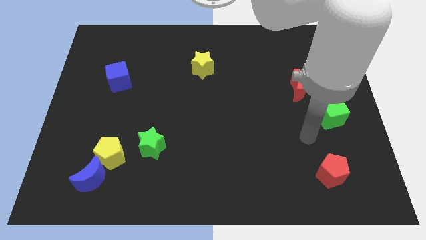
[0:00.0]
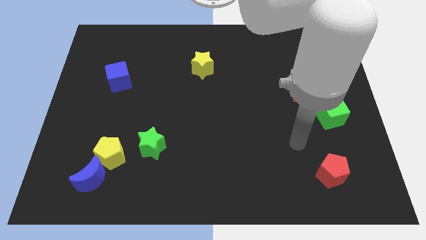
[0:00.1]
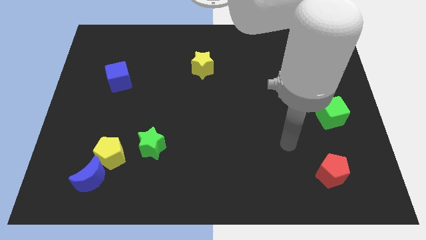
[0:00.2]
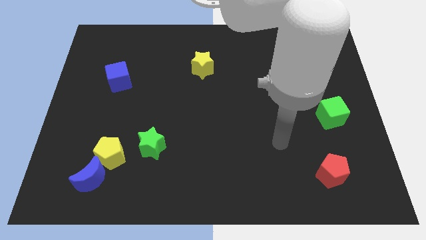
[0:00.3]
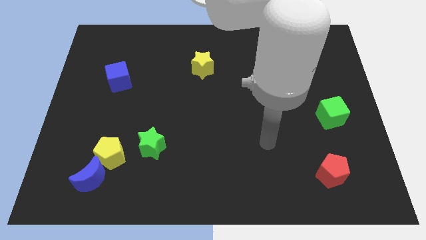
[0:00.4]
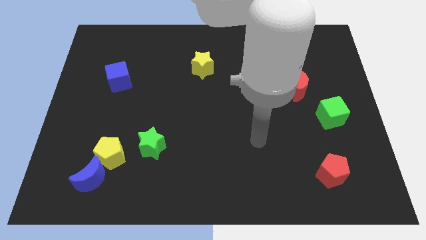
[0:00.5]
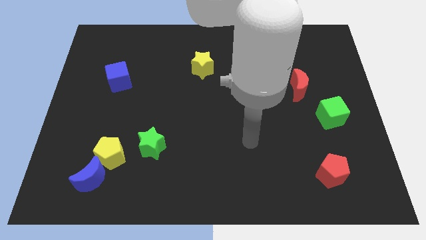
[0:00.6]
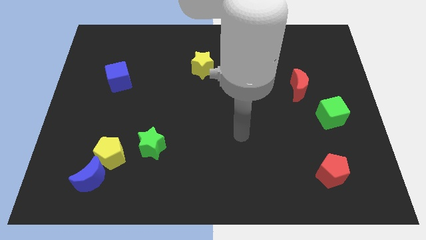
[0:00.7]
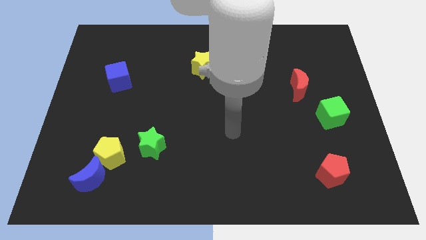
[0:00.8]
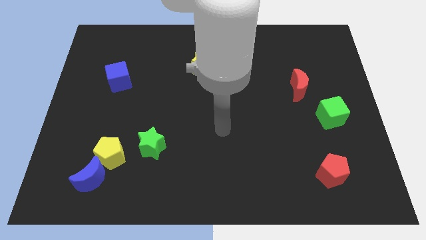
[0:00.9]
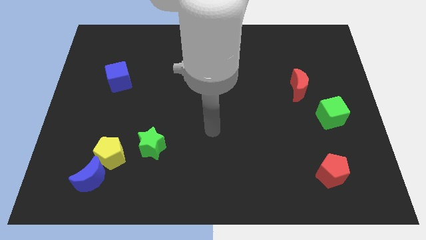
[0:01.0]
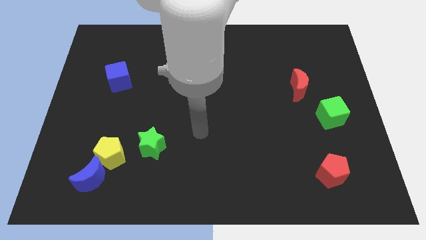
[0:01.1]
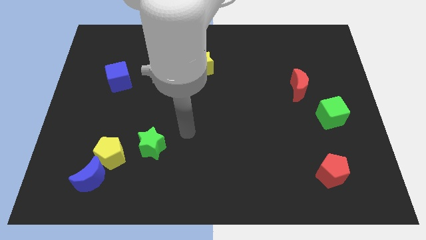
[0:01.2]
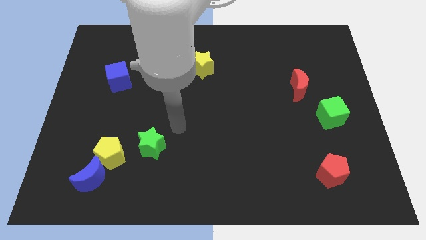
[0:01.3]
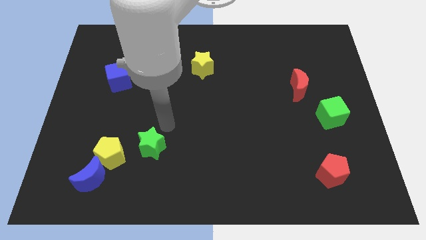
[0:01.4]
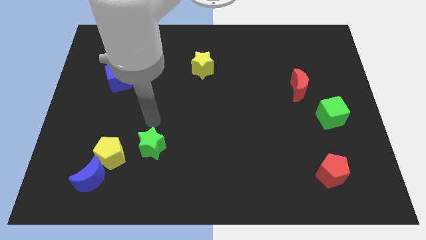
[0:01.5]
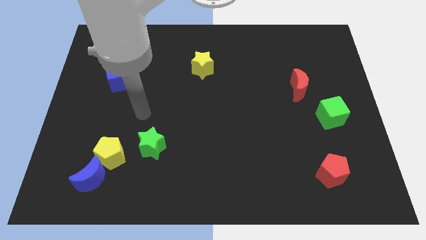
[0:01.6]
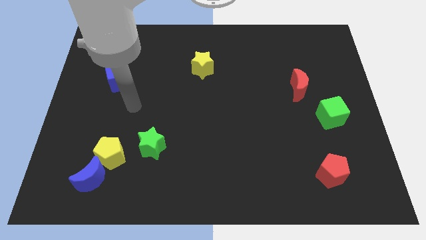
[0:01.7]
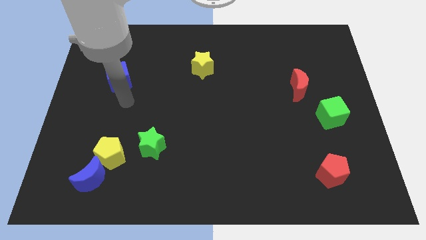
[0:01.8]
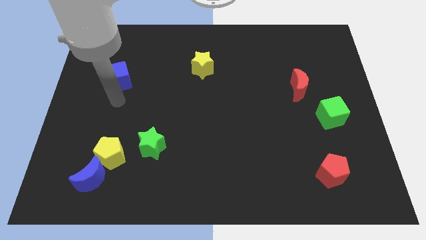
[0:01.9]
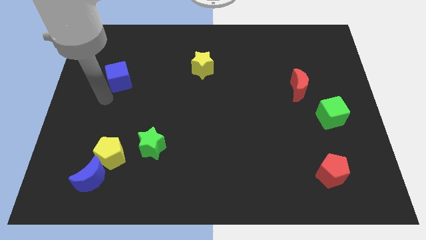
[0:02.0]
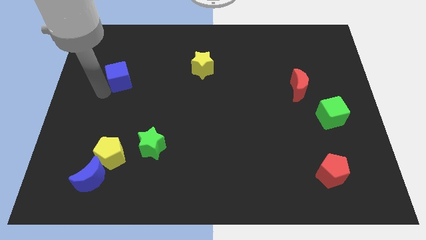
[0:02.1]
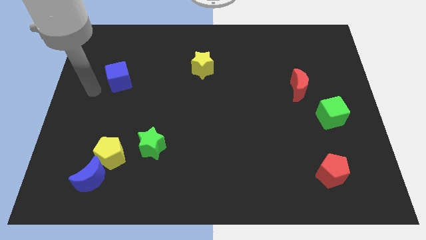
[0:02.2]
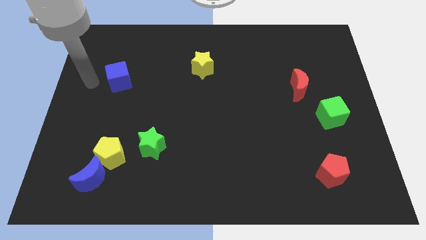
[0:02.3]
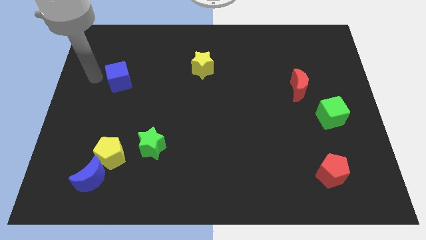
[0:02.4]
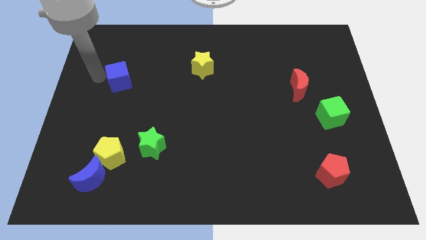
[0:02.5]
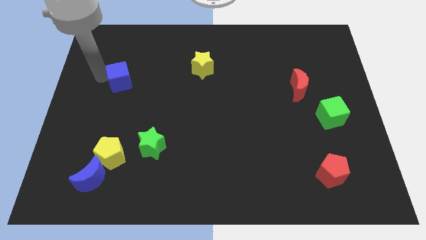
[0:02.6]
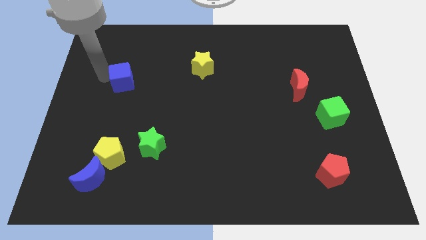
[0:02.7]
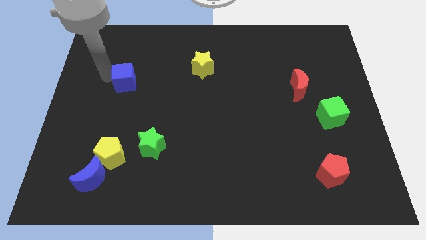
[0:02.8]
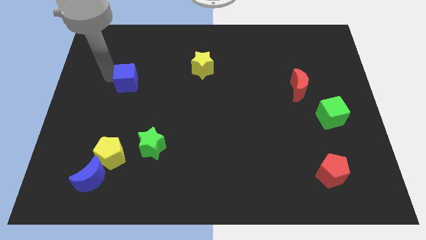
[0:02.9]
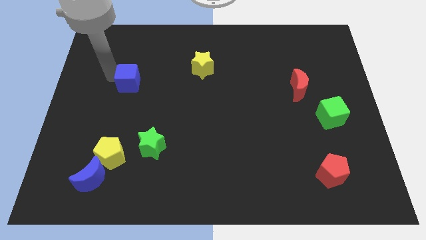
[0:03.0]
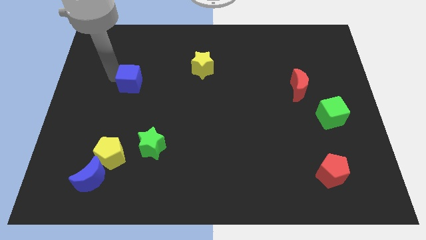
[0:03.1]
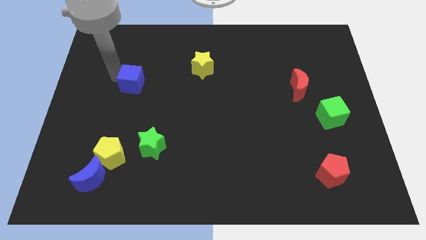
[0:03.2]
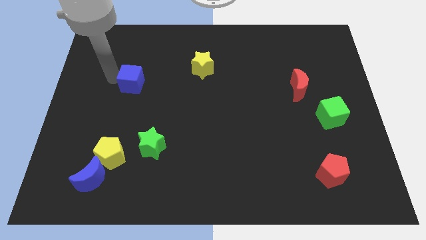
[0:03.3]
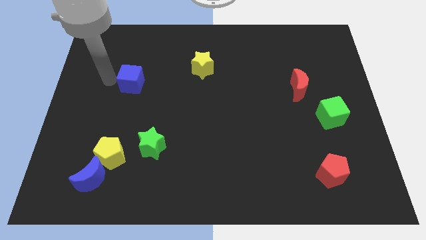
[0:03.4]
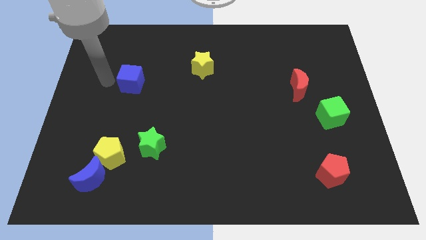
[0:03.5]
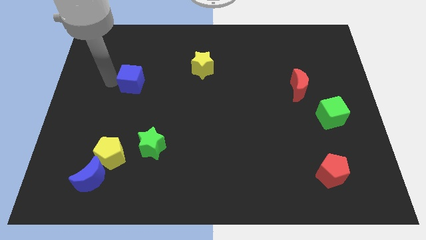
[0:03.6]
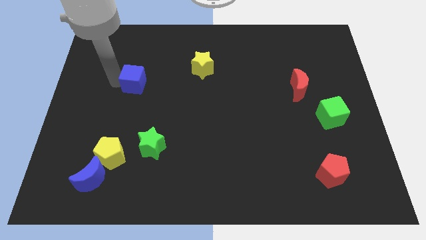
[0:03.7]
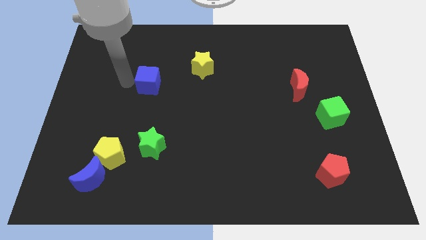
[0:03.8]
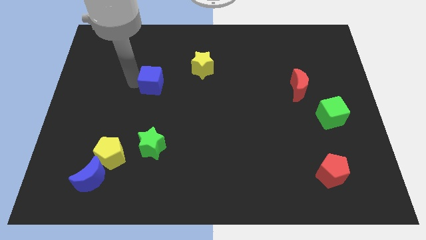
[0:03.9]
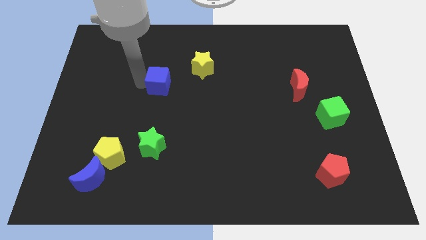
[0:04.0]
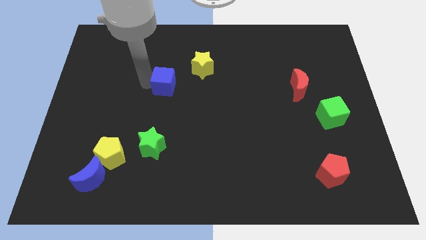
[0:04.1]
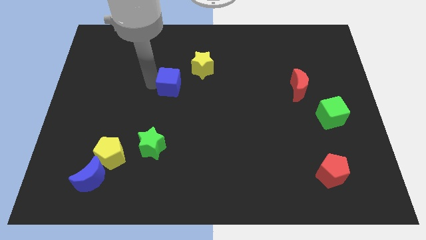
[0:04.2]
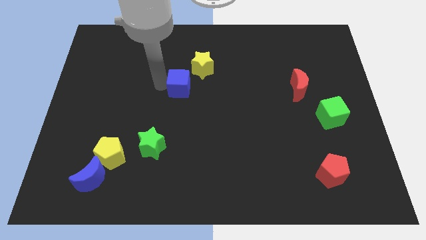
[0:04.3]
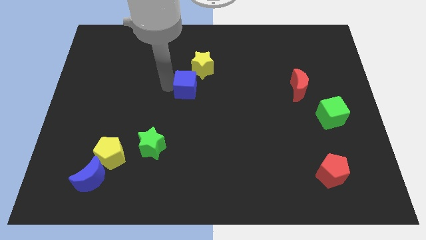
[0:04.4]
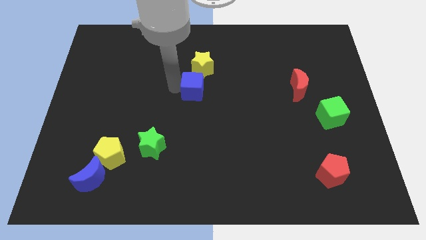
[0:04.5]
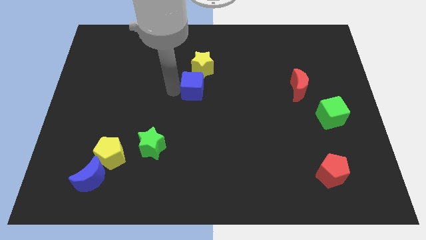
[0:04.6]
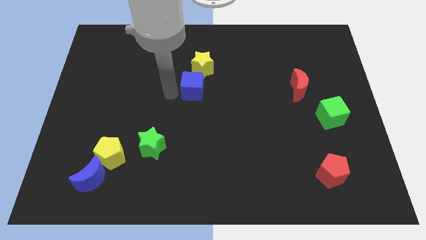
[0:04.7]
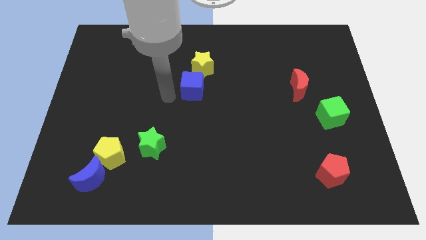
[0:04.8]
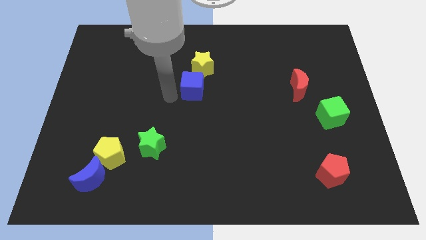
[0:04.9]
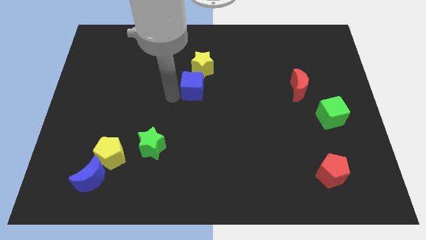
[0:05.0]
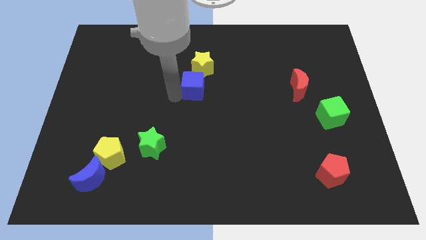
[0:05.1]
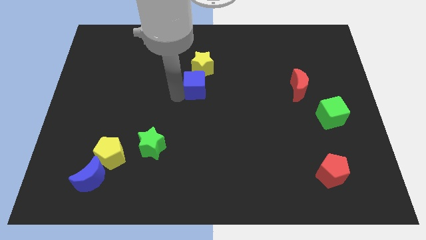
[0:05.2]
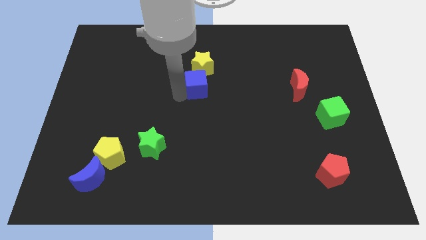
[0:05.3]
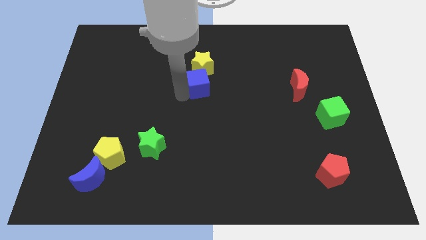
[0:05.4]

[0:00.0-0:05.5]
slide the blue cube to the right

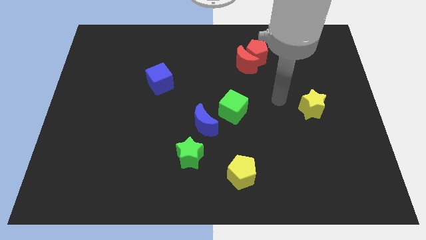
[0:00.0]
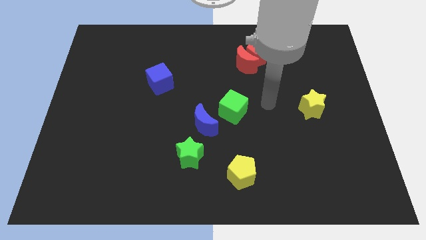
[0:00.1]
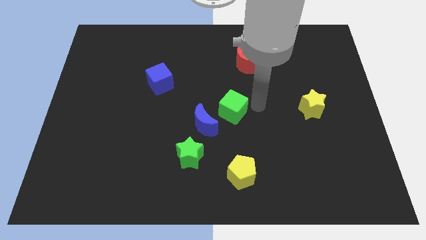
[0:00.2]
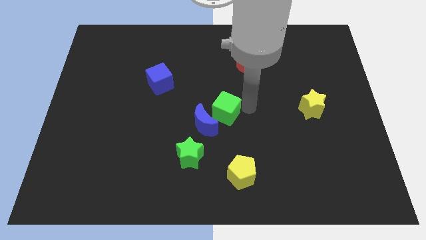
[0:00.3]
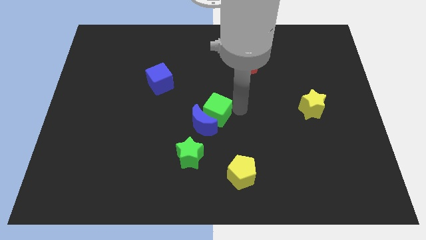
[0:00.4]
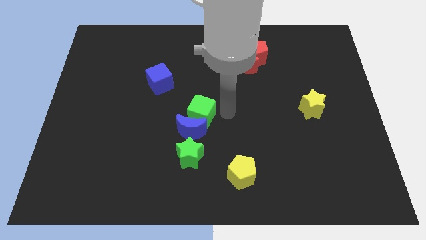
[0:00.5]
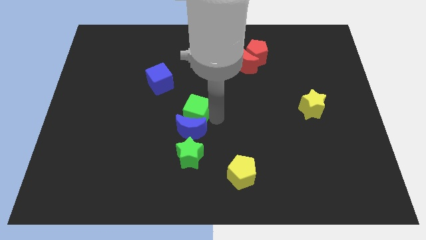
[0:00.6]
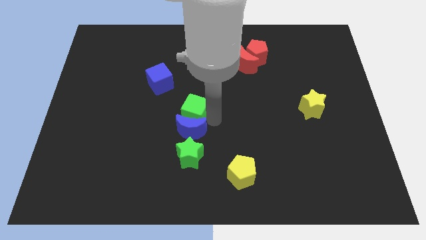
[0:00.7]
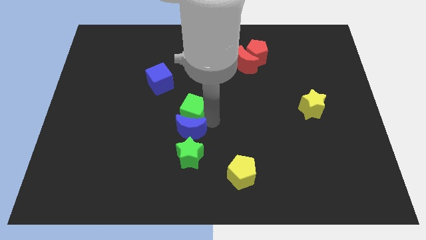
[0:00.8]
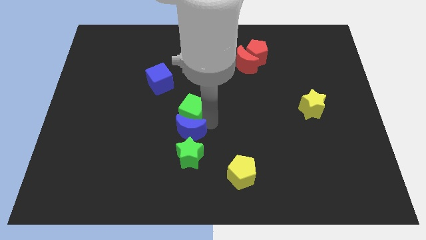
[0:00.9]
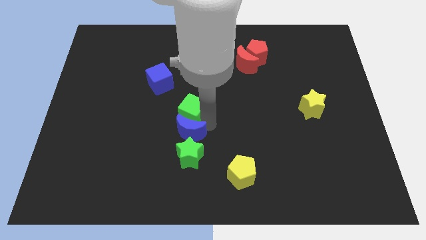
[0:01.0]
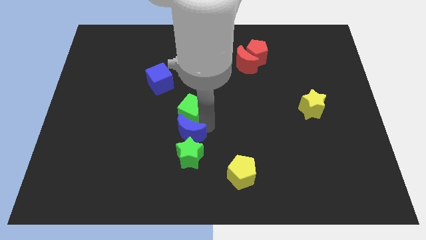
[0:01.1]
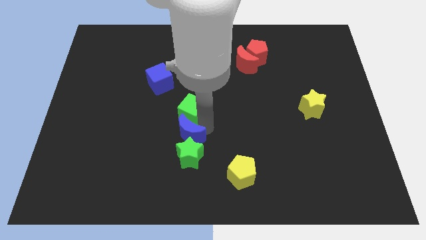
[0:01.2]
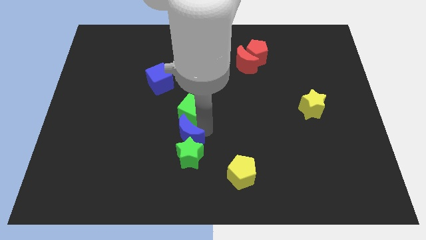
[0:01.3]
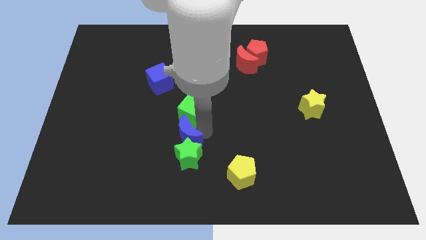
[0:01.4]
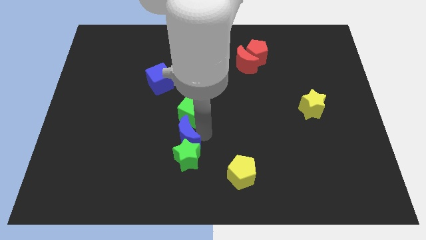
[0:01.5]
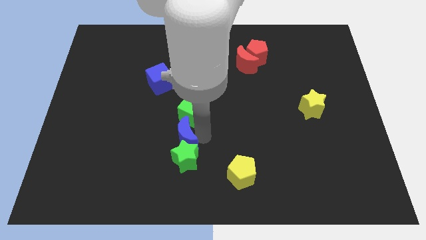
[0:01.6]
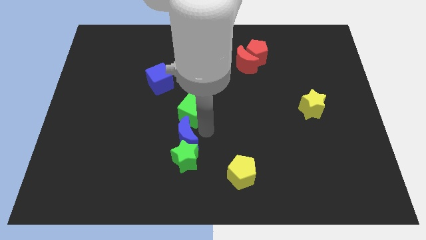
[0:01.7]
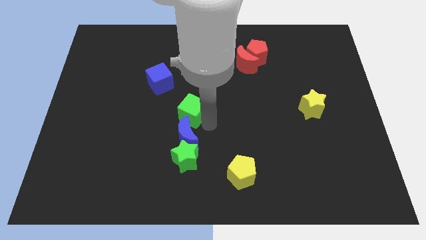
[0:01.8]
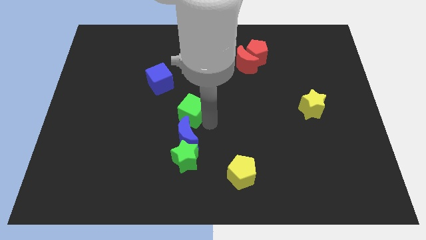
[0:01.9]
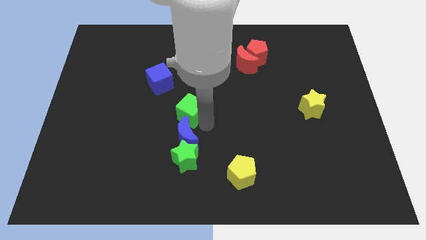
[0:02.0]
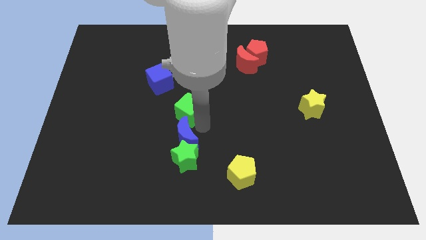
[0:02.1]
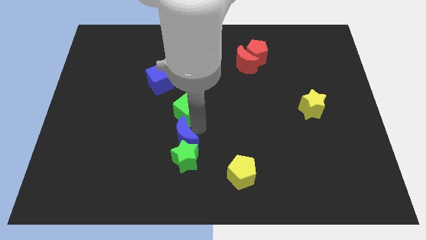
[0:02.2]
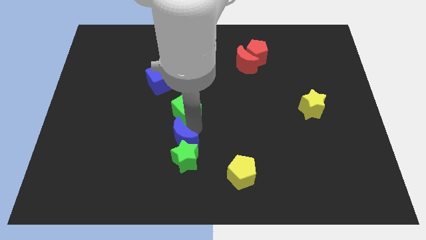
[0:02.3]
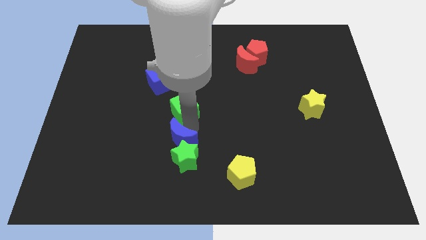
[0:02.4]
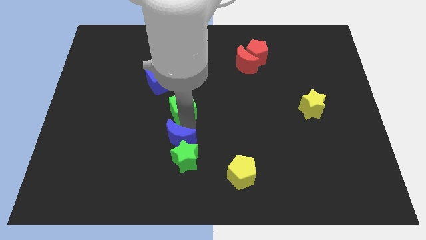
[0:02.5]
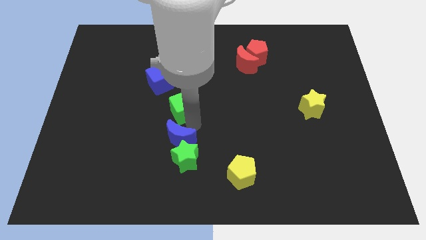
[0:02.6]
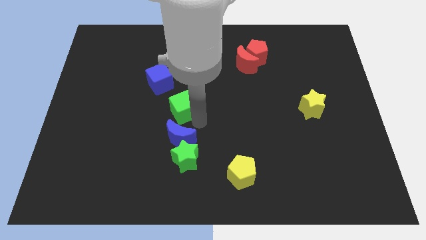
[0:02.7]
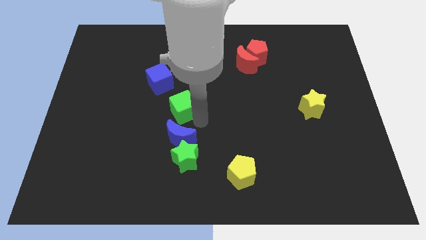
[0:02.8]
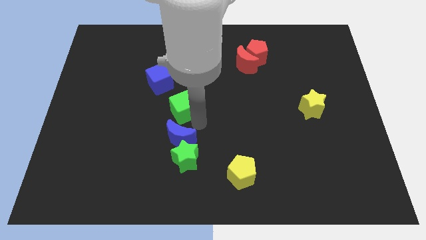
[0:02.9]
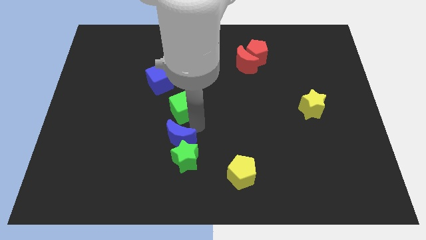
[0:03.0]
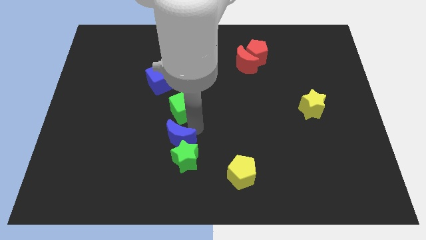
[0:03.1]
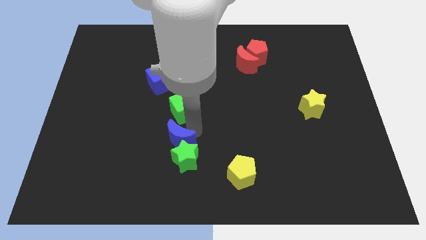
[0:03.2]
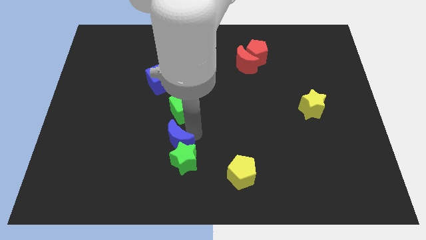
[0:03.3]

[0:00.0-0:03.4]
push the blue moon down and to the left diagonally somewhat
